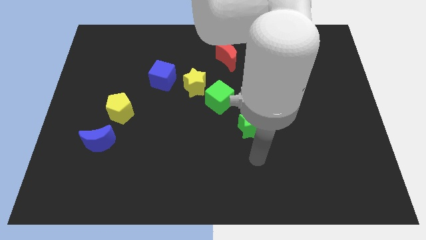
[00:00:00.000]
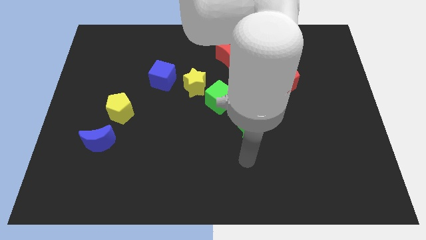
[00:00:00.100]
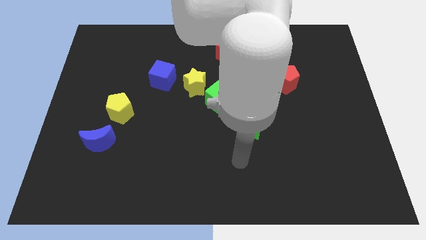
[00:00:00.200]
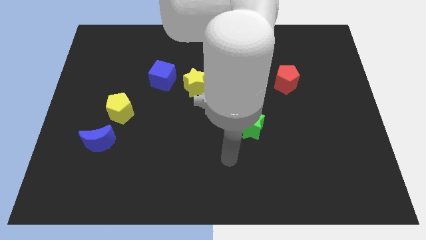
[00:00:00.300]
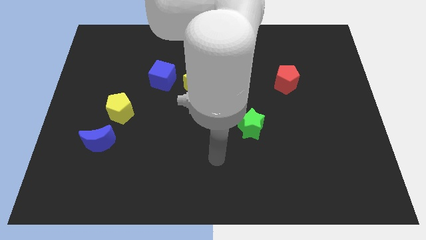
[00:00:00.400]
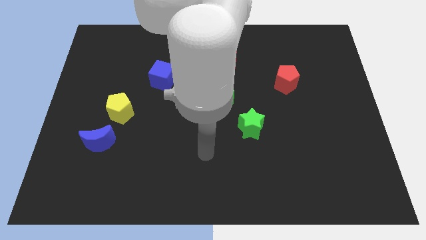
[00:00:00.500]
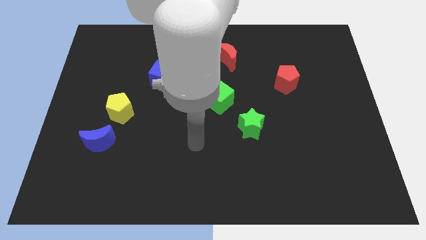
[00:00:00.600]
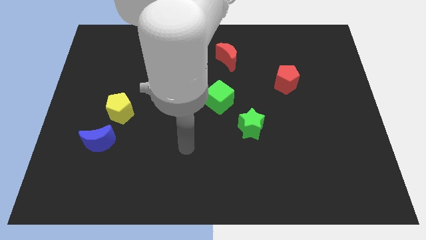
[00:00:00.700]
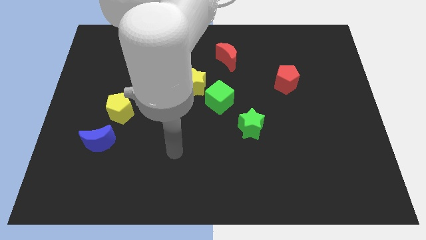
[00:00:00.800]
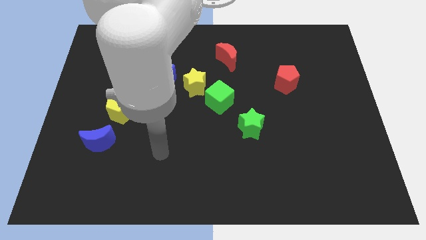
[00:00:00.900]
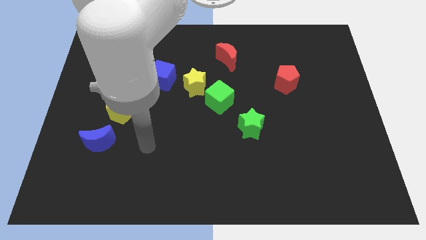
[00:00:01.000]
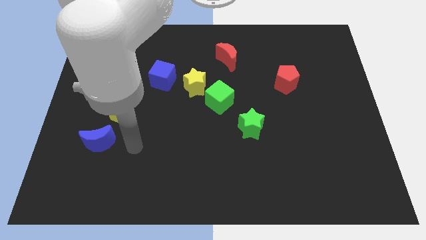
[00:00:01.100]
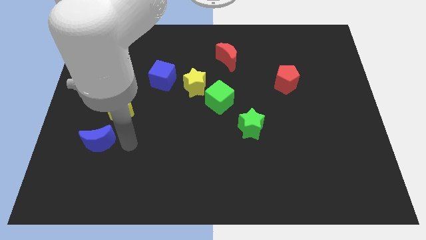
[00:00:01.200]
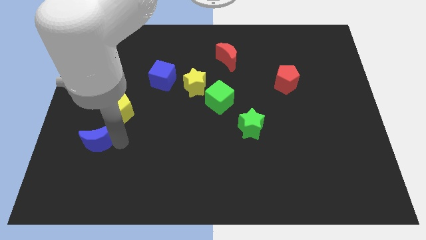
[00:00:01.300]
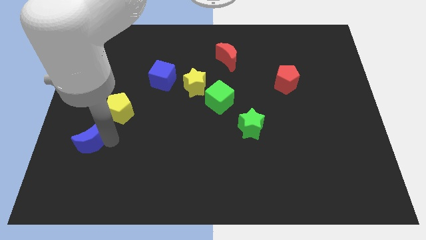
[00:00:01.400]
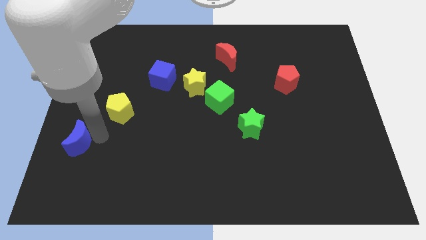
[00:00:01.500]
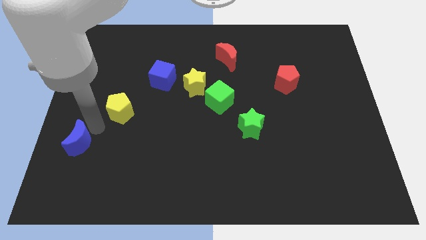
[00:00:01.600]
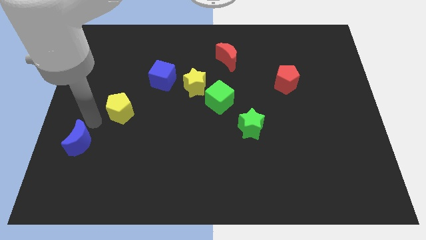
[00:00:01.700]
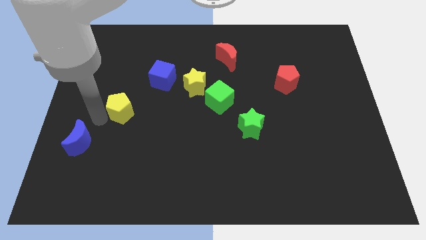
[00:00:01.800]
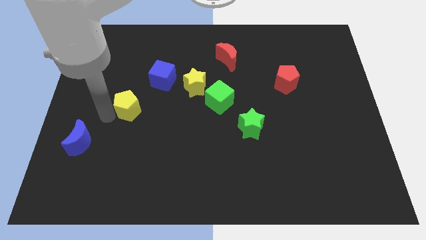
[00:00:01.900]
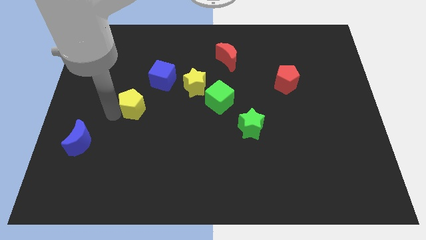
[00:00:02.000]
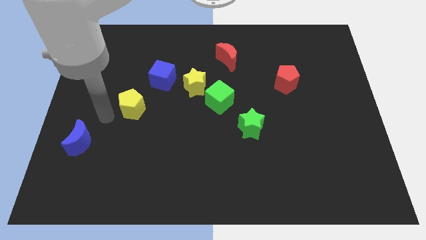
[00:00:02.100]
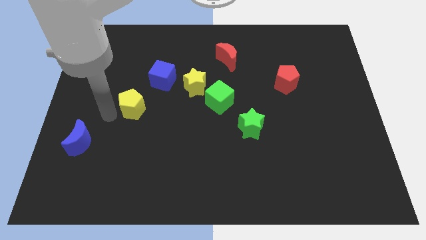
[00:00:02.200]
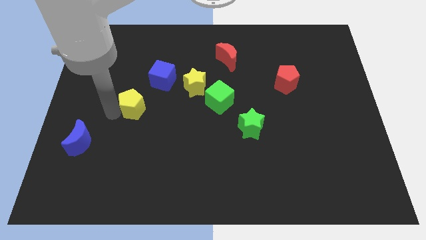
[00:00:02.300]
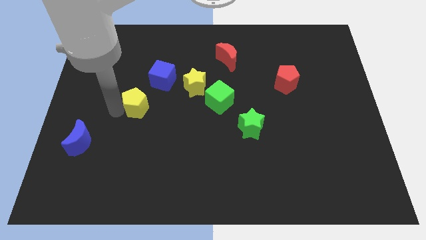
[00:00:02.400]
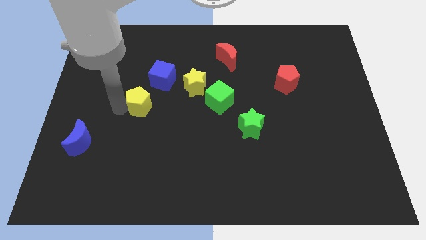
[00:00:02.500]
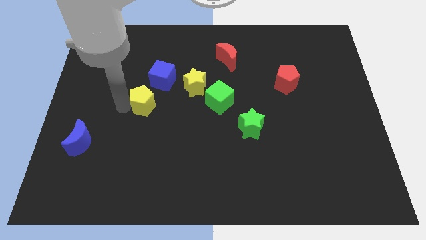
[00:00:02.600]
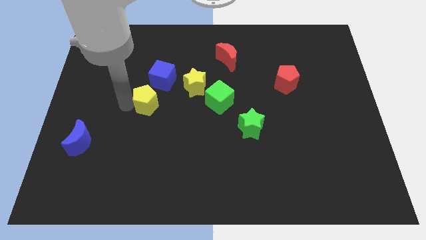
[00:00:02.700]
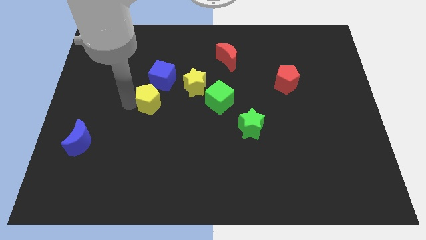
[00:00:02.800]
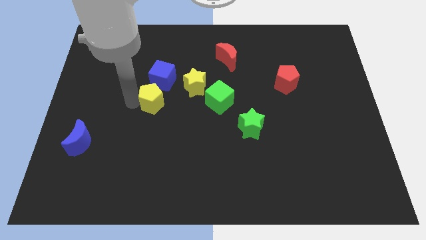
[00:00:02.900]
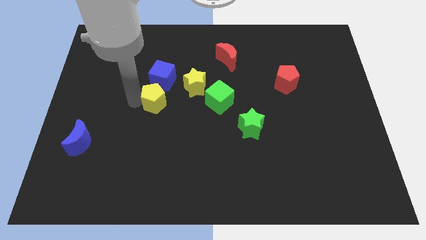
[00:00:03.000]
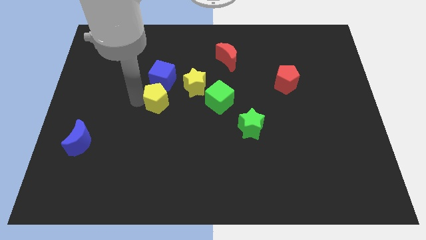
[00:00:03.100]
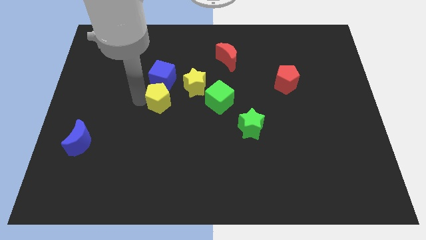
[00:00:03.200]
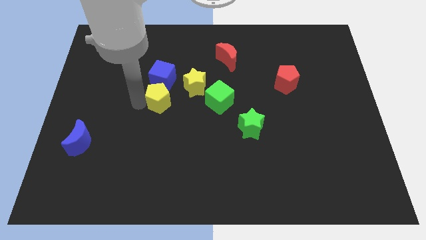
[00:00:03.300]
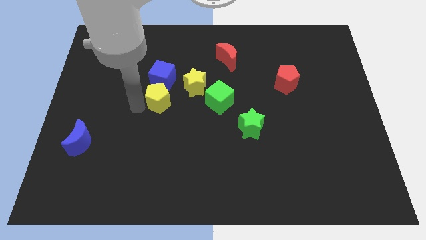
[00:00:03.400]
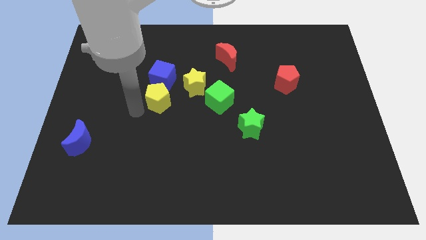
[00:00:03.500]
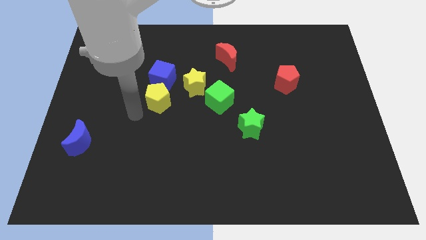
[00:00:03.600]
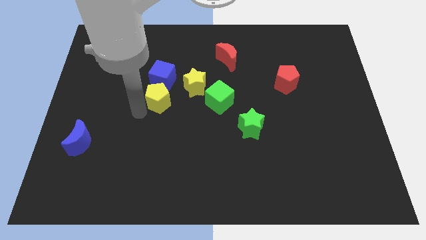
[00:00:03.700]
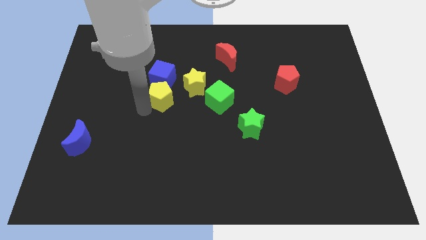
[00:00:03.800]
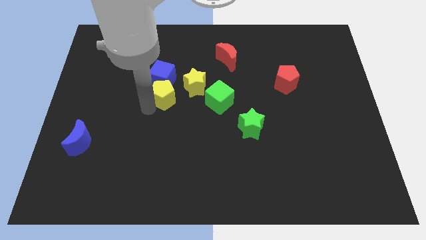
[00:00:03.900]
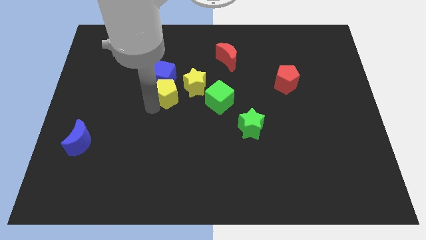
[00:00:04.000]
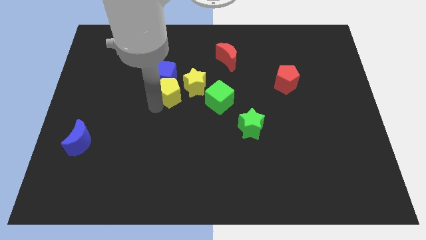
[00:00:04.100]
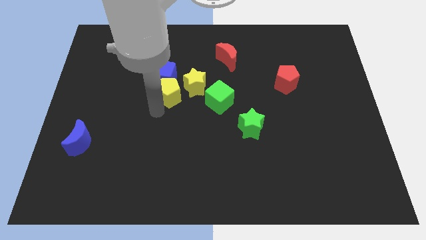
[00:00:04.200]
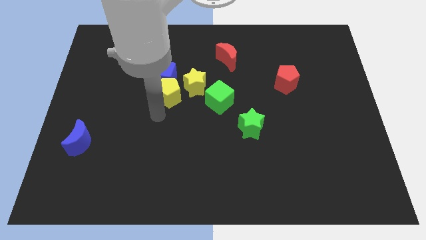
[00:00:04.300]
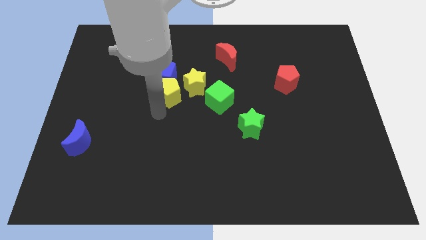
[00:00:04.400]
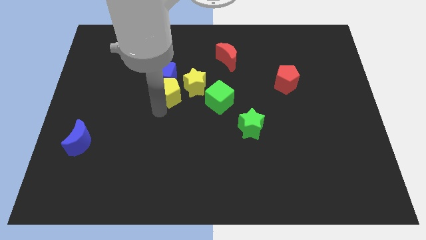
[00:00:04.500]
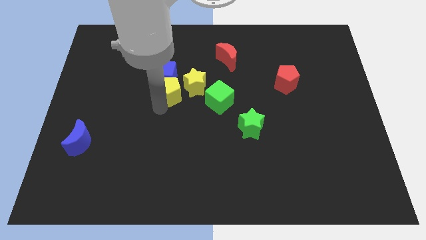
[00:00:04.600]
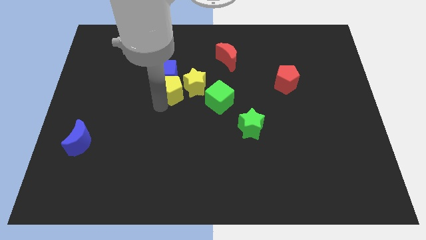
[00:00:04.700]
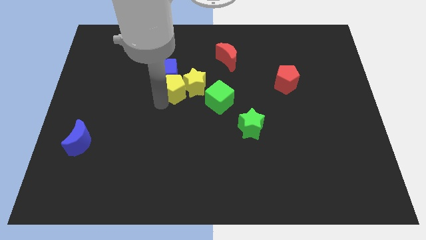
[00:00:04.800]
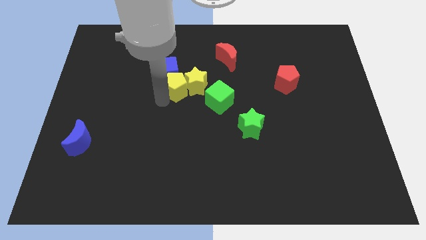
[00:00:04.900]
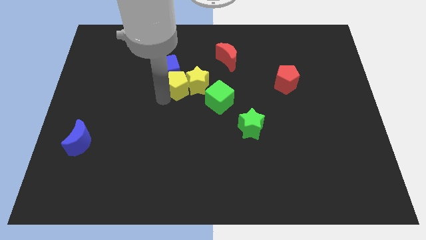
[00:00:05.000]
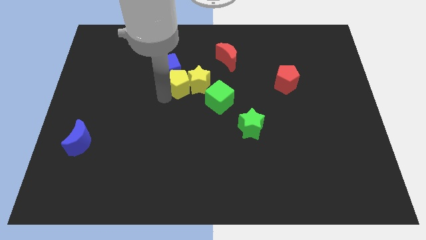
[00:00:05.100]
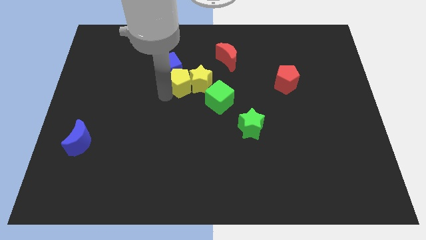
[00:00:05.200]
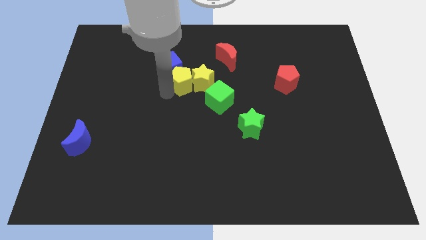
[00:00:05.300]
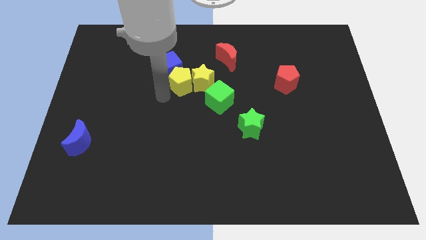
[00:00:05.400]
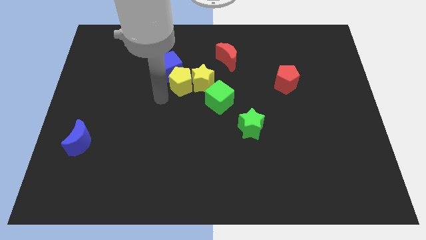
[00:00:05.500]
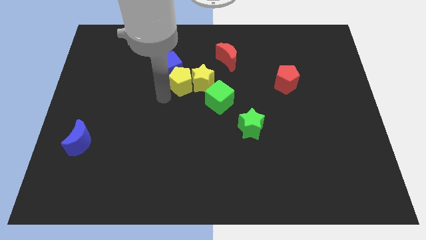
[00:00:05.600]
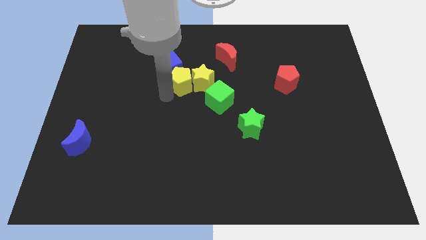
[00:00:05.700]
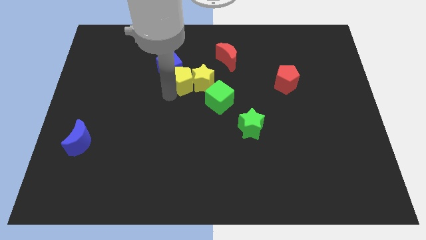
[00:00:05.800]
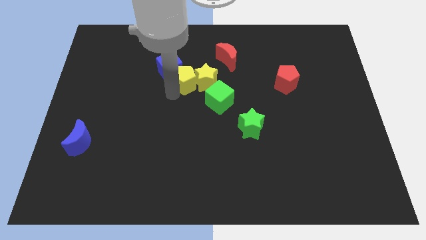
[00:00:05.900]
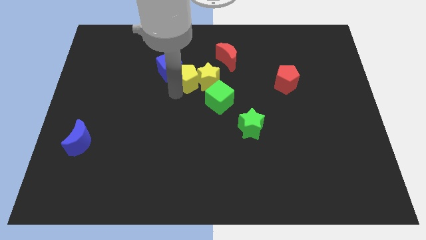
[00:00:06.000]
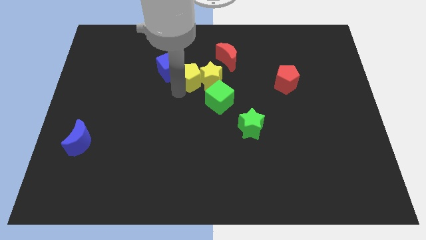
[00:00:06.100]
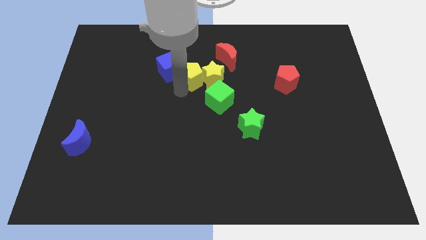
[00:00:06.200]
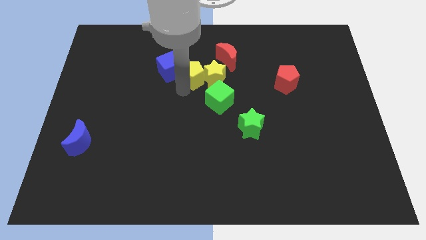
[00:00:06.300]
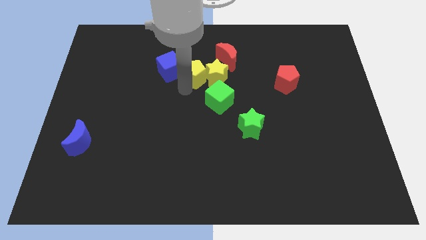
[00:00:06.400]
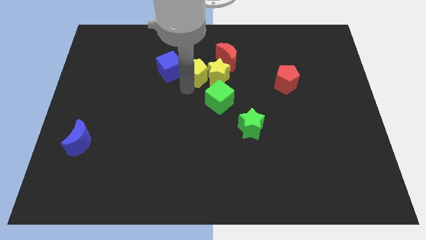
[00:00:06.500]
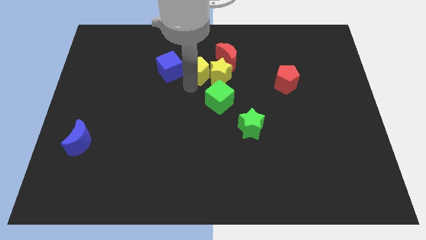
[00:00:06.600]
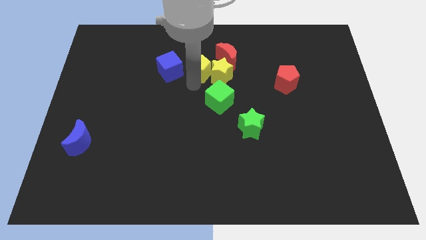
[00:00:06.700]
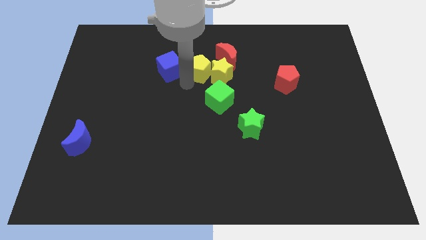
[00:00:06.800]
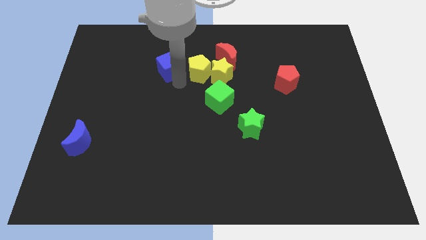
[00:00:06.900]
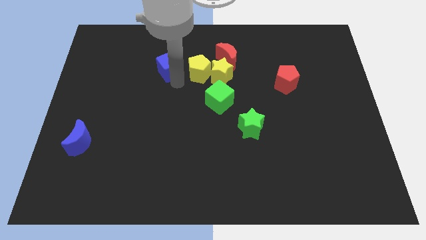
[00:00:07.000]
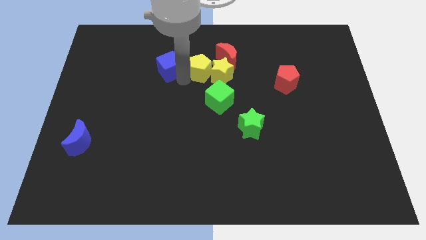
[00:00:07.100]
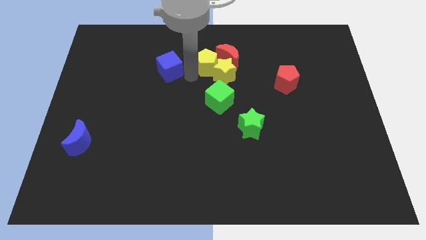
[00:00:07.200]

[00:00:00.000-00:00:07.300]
put the yellow pentagon next to the red moon
